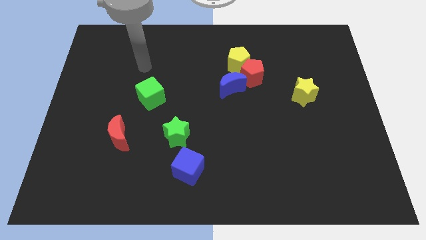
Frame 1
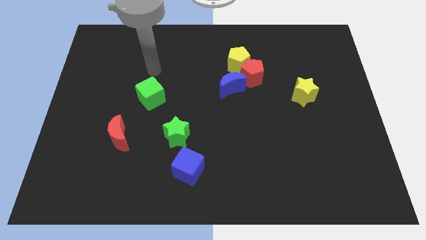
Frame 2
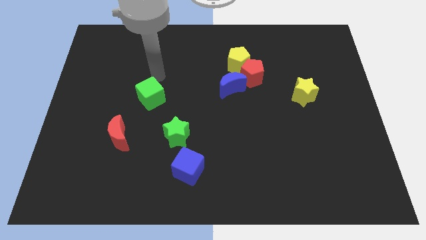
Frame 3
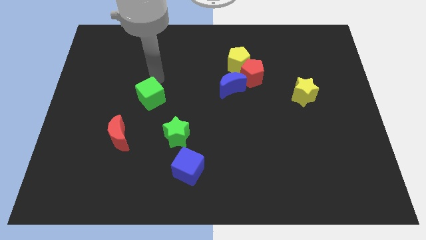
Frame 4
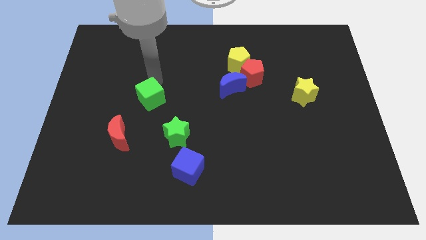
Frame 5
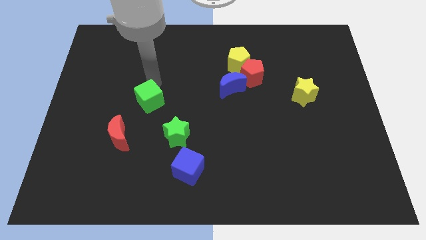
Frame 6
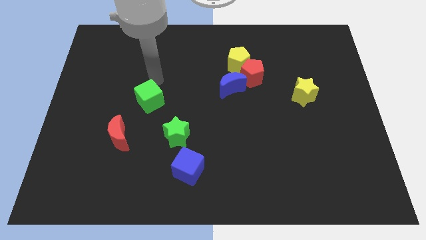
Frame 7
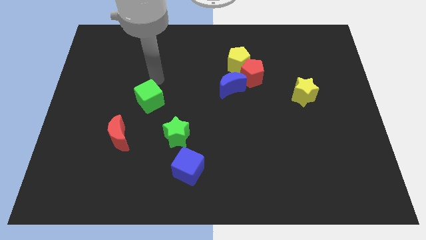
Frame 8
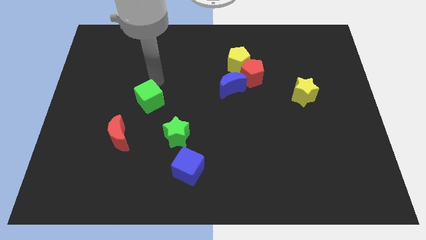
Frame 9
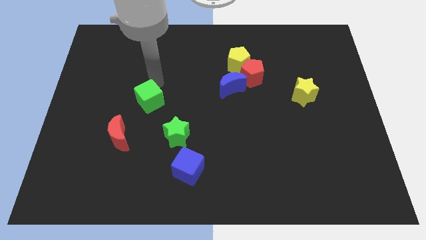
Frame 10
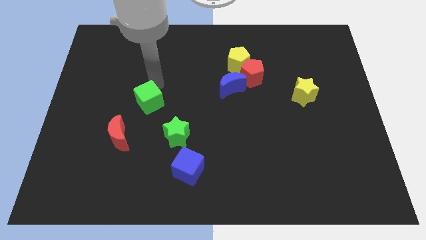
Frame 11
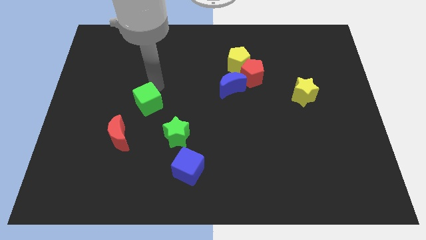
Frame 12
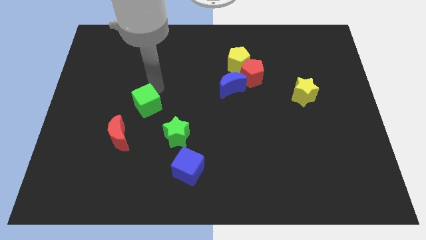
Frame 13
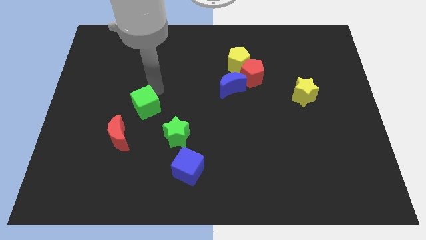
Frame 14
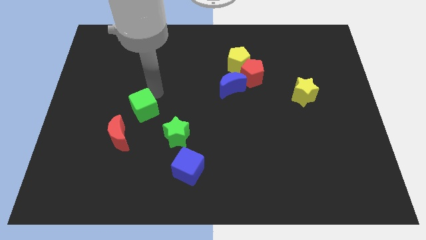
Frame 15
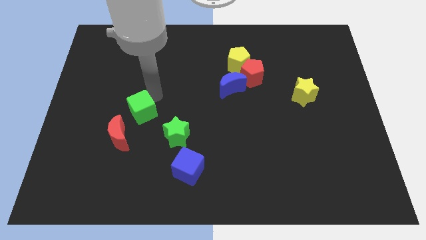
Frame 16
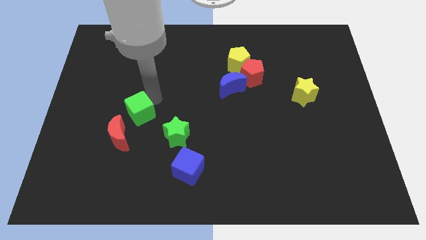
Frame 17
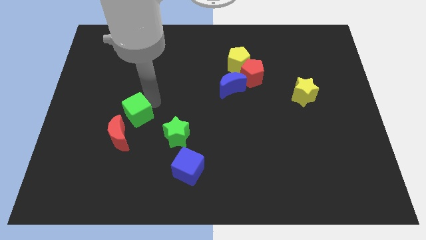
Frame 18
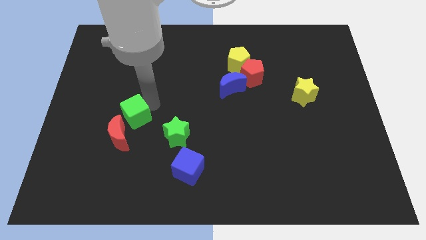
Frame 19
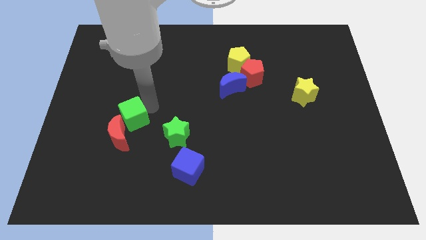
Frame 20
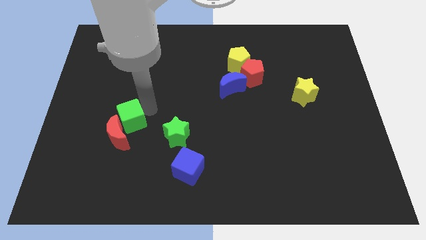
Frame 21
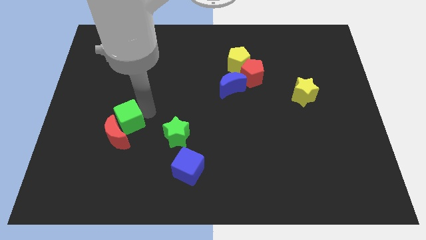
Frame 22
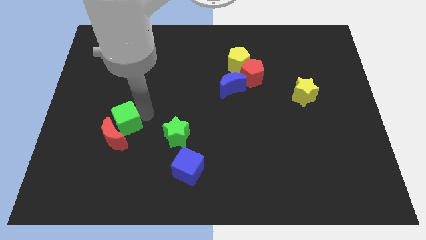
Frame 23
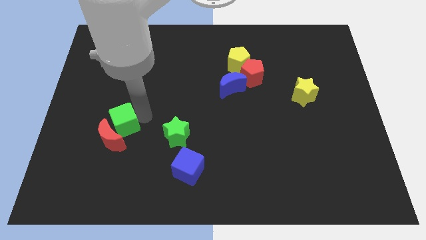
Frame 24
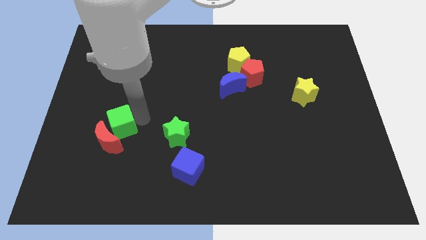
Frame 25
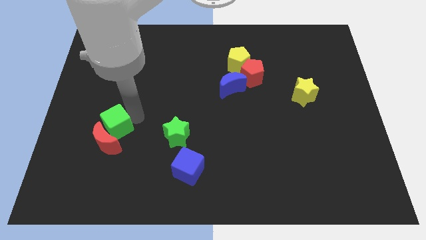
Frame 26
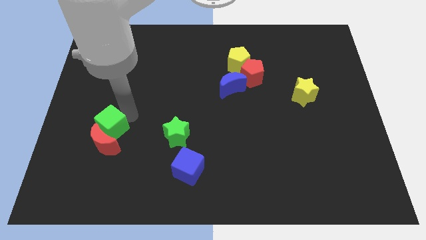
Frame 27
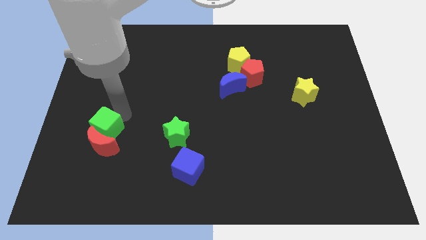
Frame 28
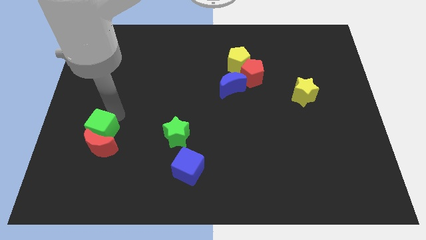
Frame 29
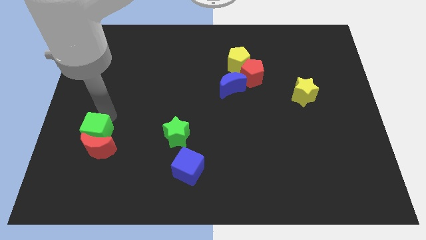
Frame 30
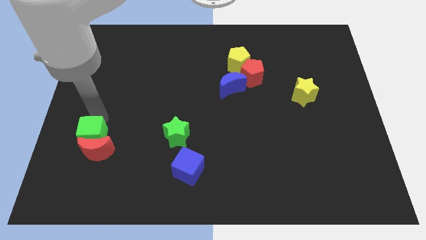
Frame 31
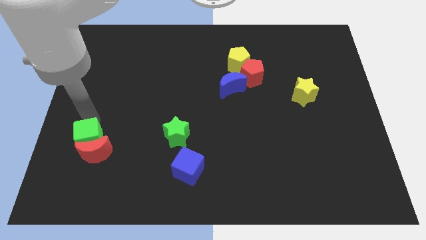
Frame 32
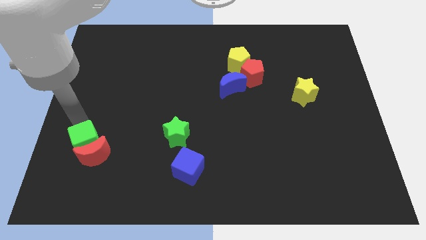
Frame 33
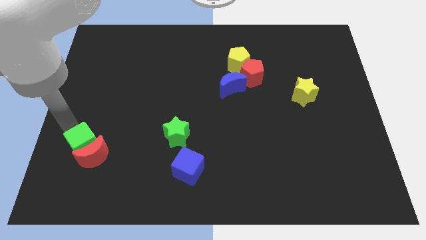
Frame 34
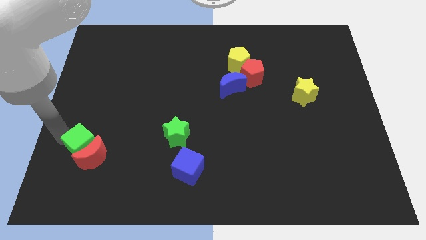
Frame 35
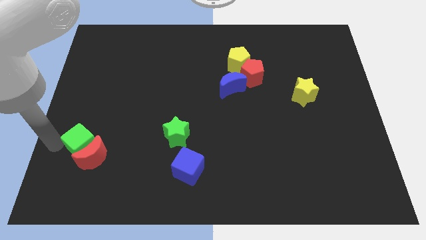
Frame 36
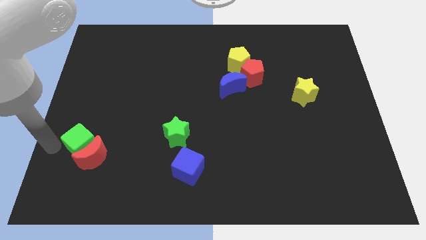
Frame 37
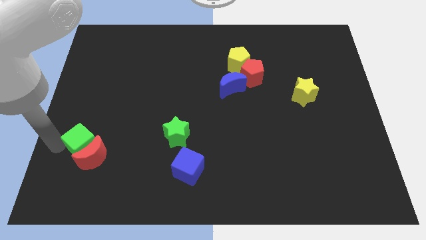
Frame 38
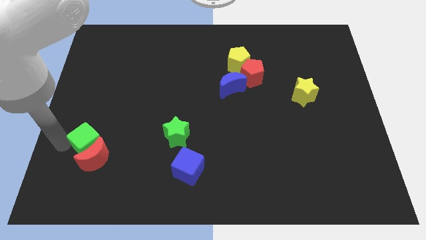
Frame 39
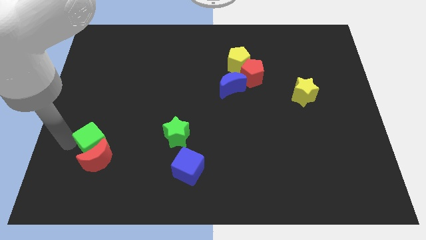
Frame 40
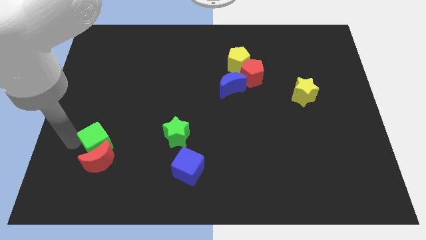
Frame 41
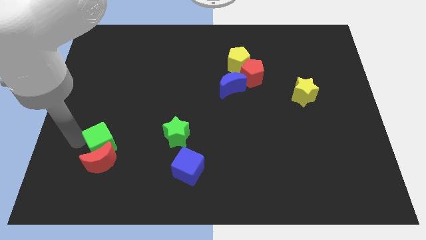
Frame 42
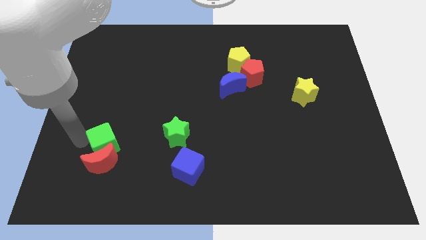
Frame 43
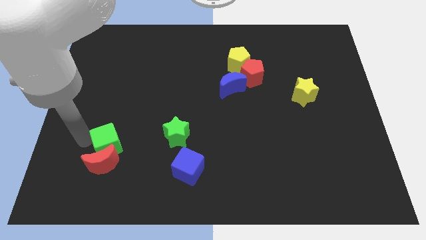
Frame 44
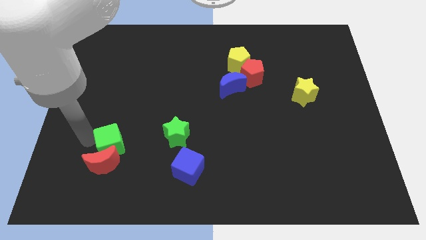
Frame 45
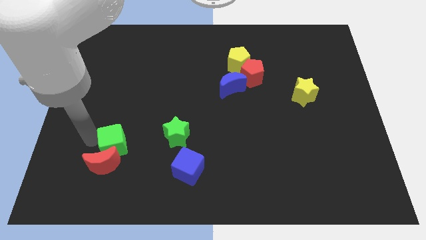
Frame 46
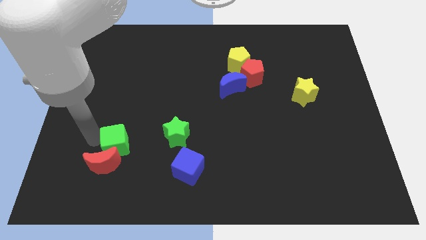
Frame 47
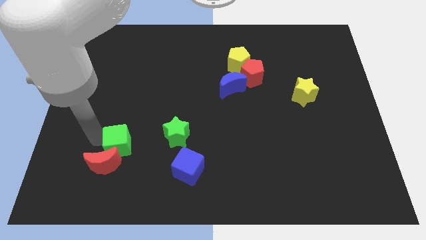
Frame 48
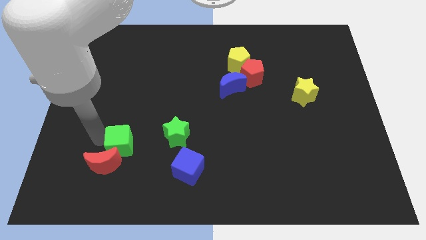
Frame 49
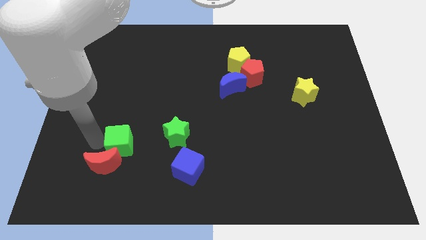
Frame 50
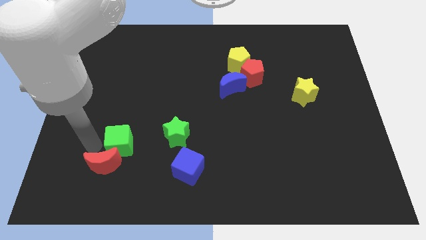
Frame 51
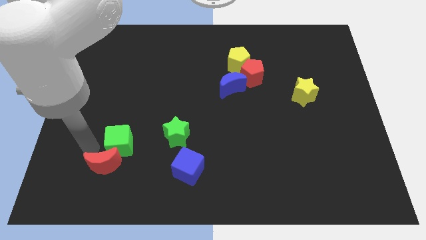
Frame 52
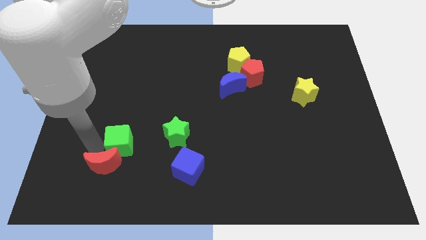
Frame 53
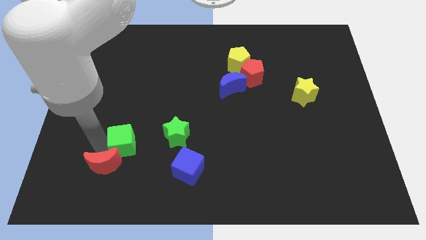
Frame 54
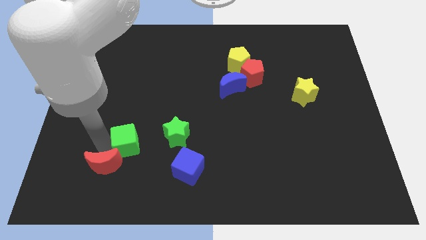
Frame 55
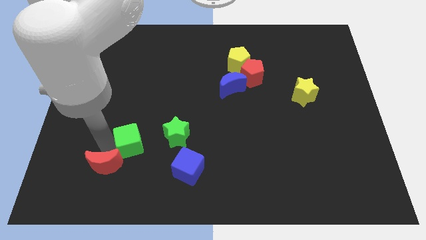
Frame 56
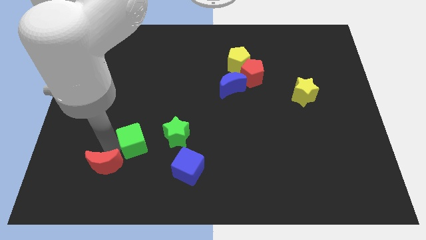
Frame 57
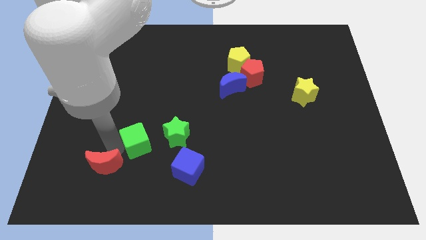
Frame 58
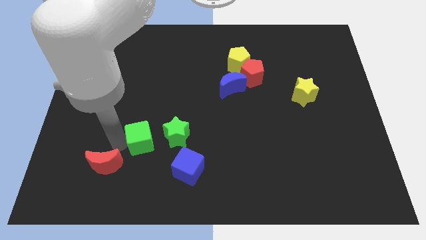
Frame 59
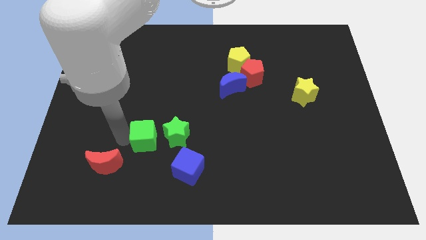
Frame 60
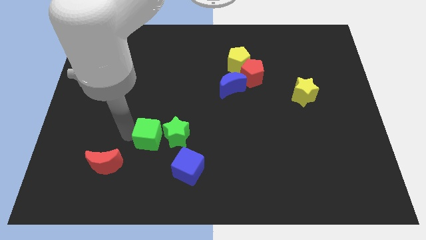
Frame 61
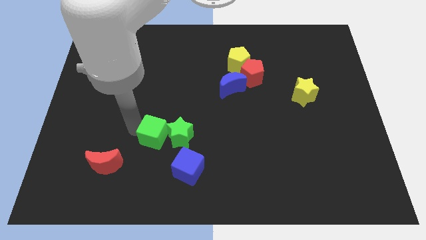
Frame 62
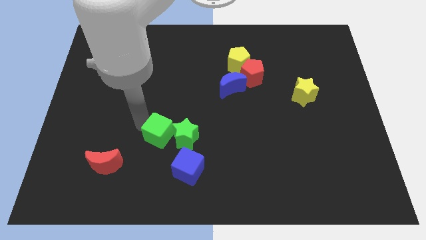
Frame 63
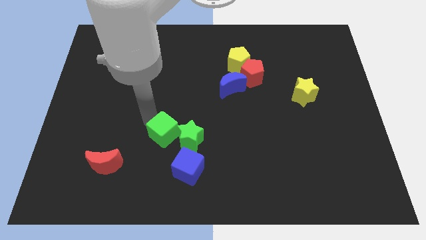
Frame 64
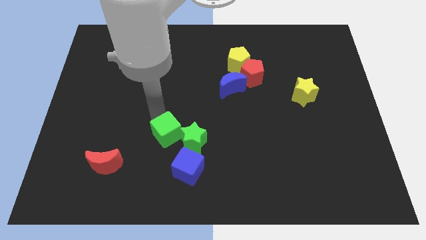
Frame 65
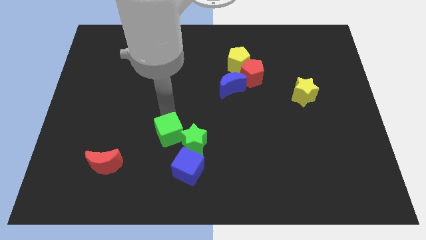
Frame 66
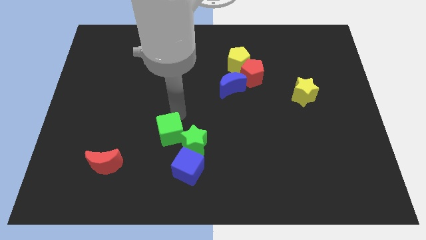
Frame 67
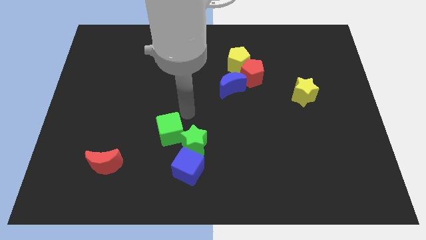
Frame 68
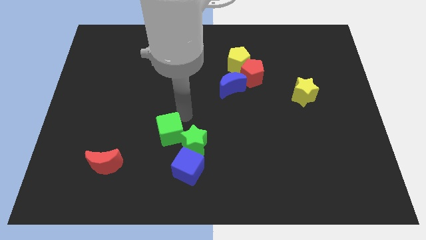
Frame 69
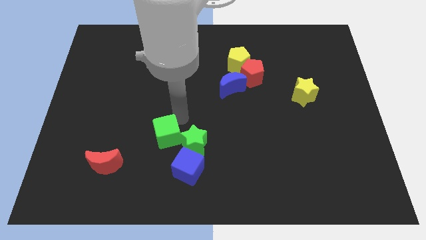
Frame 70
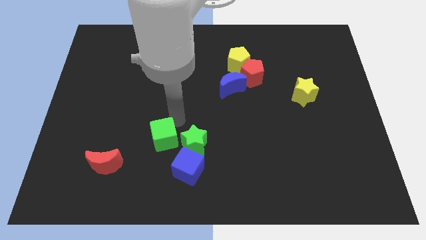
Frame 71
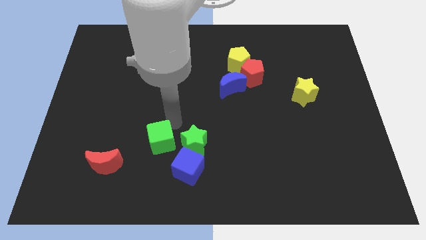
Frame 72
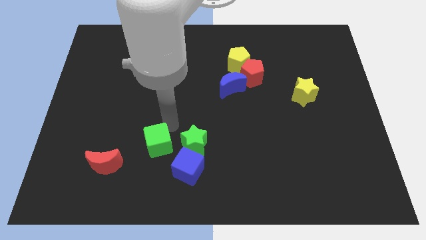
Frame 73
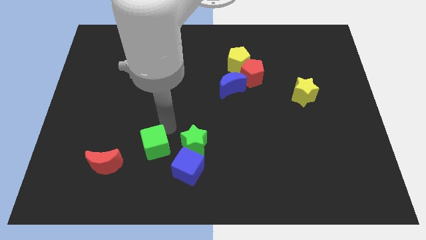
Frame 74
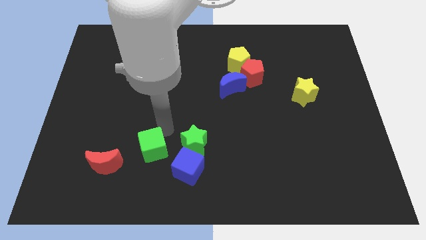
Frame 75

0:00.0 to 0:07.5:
put the green cube left of the blue cube

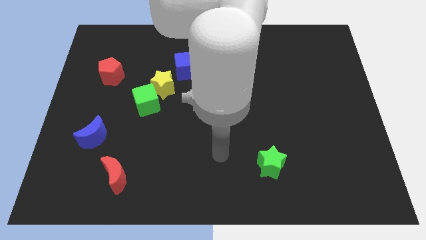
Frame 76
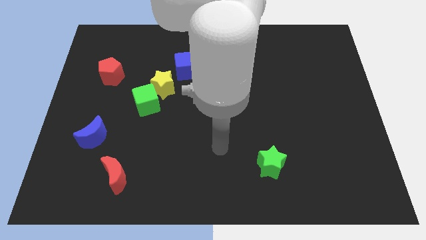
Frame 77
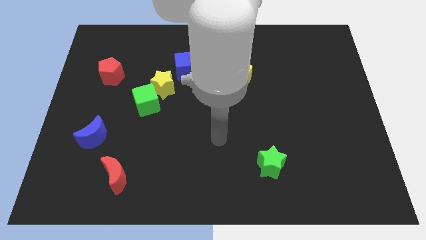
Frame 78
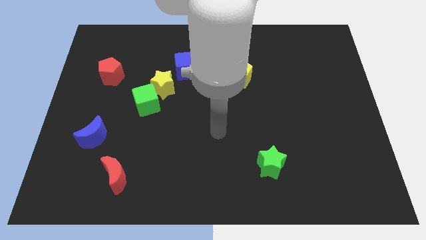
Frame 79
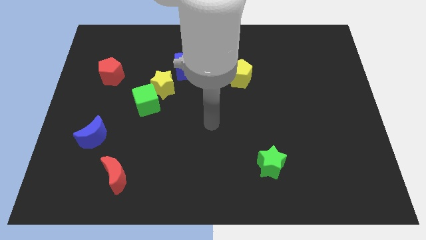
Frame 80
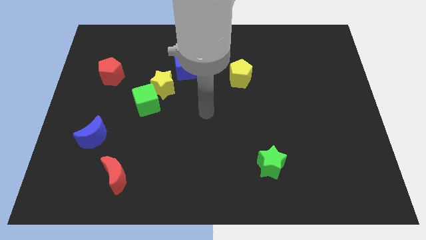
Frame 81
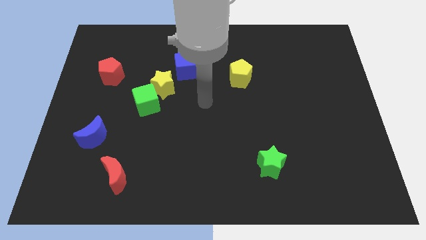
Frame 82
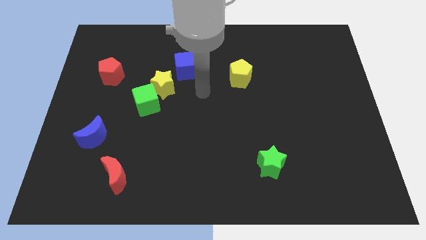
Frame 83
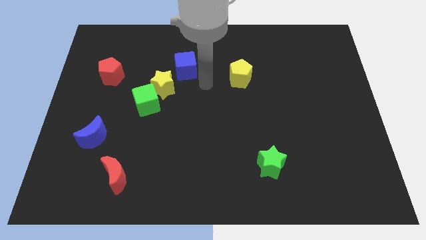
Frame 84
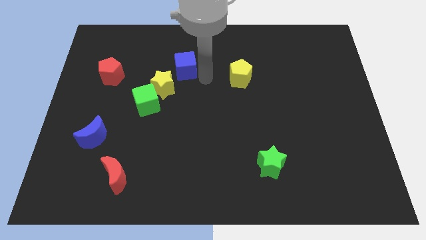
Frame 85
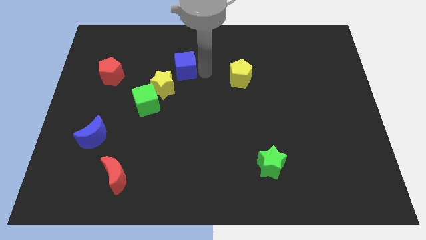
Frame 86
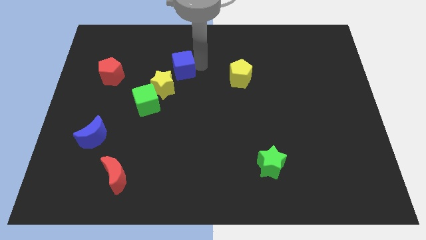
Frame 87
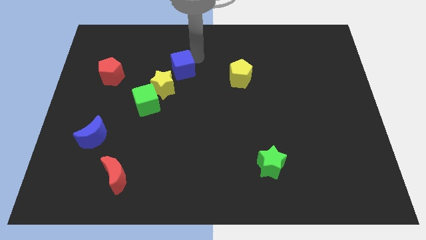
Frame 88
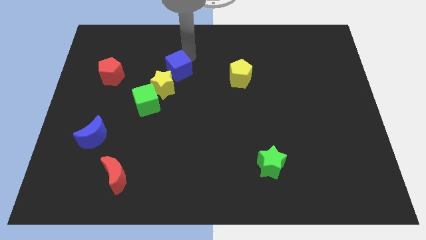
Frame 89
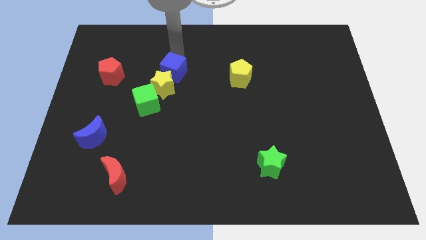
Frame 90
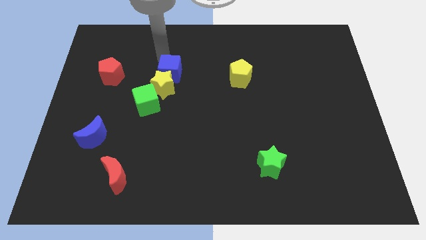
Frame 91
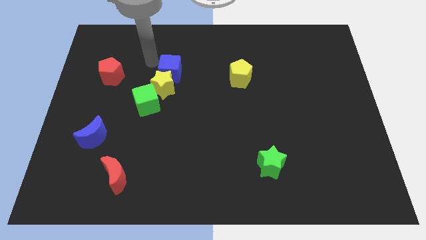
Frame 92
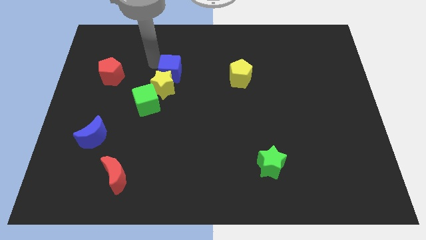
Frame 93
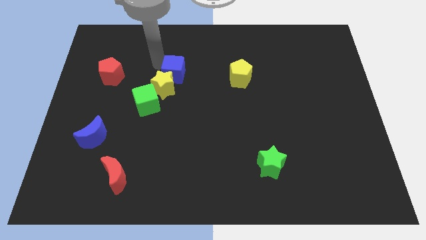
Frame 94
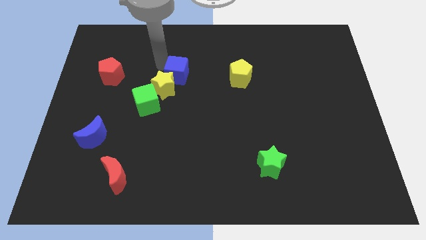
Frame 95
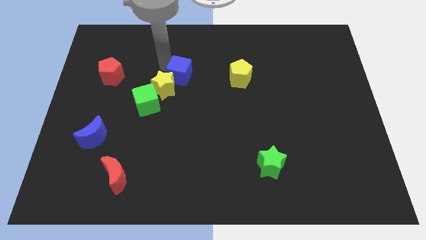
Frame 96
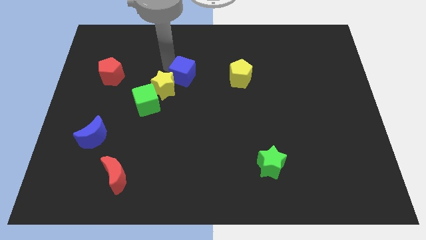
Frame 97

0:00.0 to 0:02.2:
move the blue cube right of the yellow star
